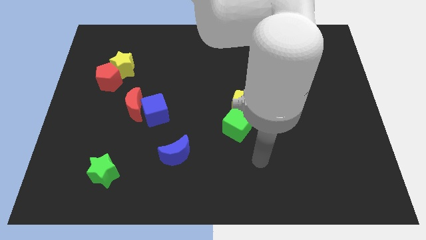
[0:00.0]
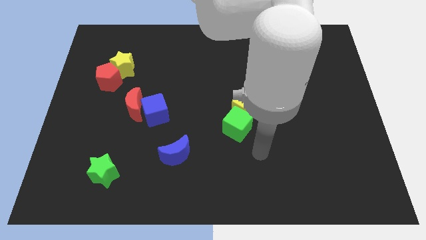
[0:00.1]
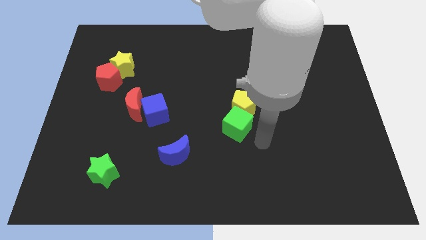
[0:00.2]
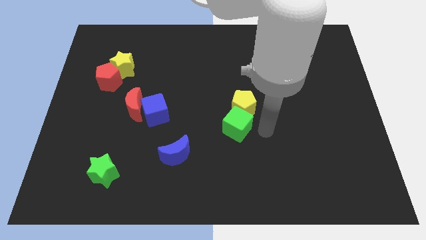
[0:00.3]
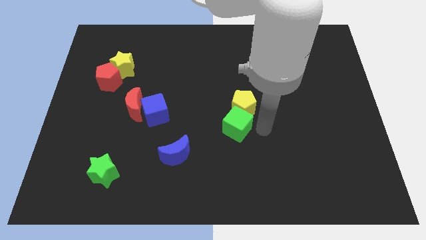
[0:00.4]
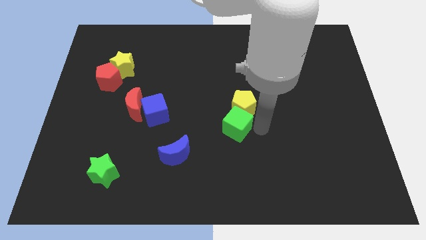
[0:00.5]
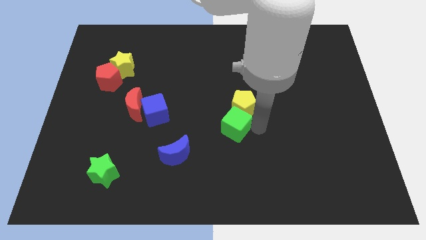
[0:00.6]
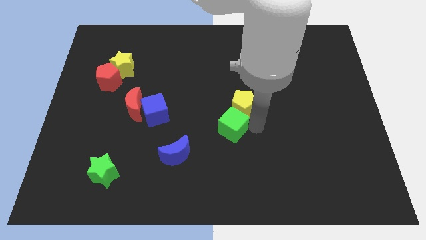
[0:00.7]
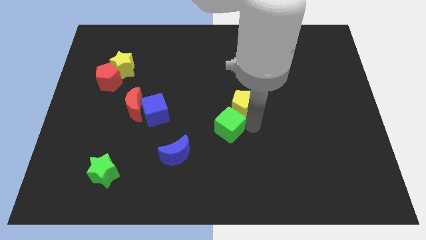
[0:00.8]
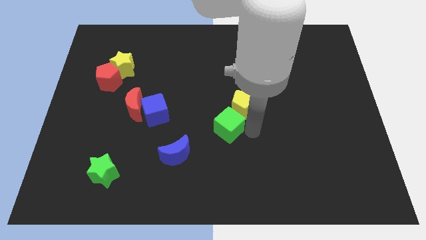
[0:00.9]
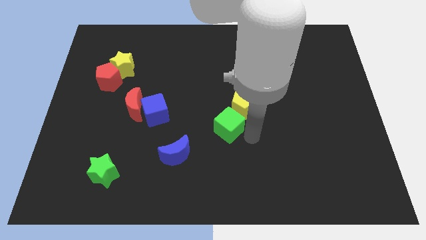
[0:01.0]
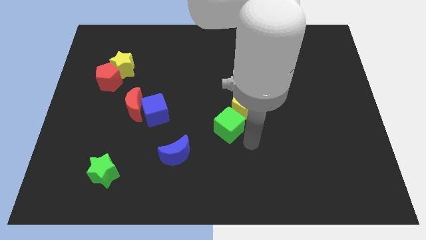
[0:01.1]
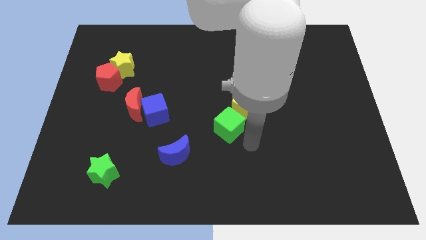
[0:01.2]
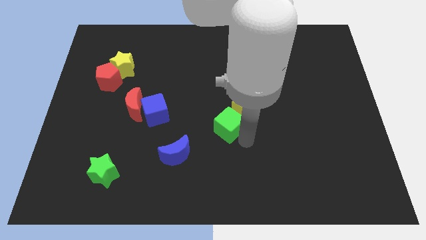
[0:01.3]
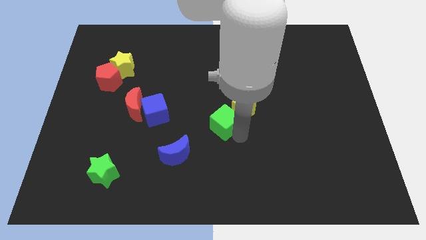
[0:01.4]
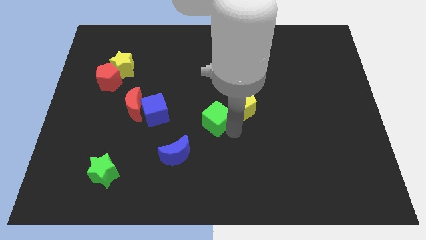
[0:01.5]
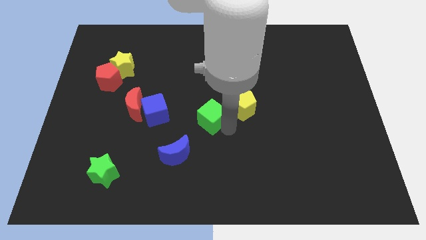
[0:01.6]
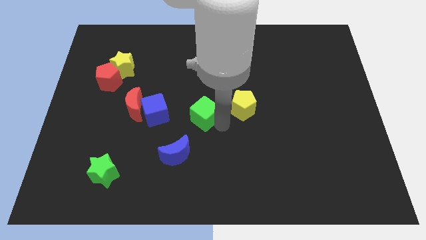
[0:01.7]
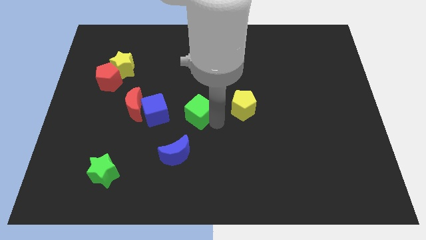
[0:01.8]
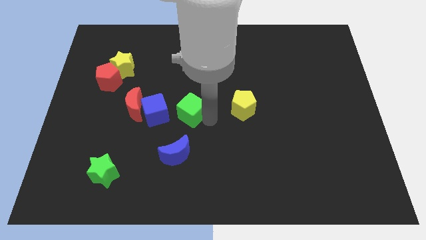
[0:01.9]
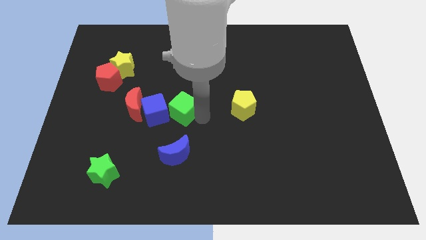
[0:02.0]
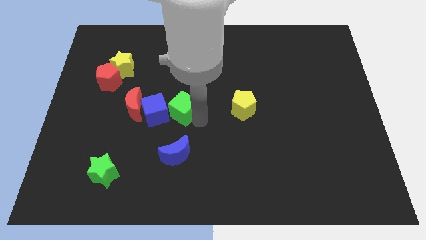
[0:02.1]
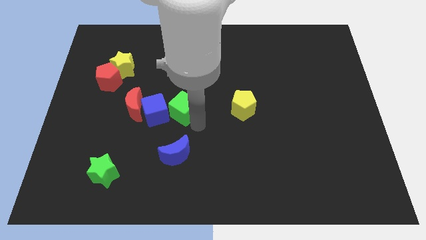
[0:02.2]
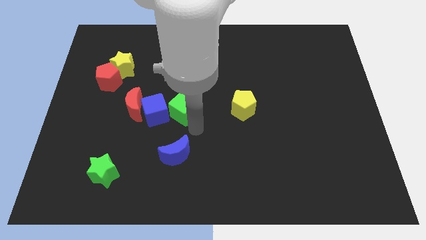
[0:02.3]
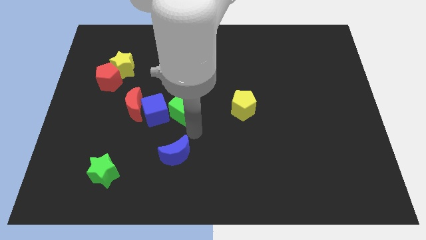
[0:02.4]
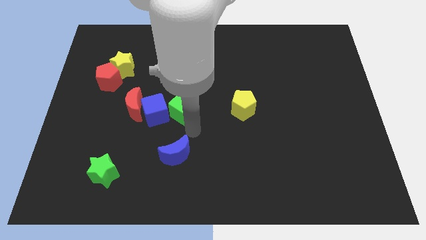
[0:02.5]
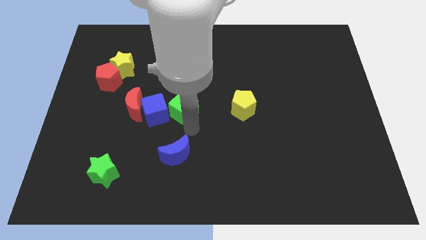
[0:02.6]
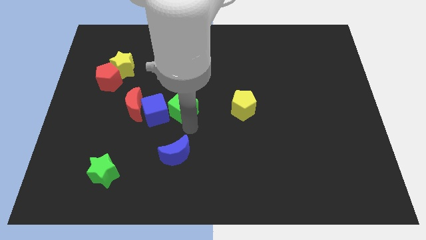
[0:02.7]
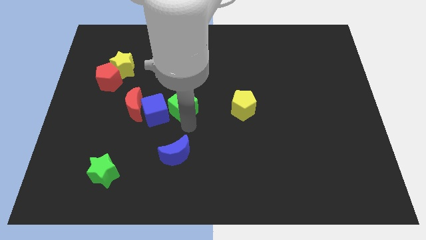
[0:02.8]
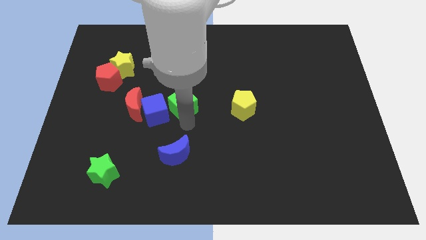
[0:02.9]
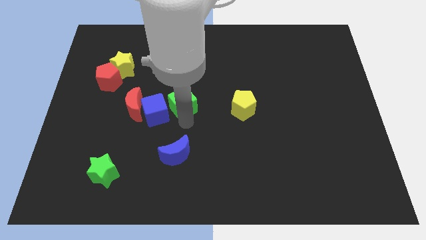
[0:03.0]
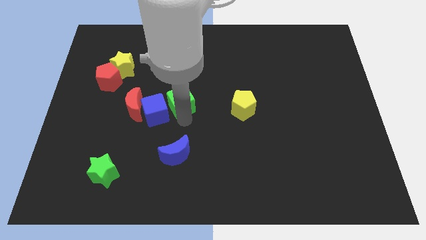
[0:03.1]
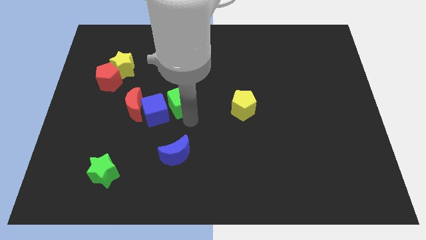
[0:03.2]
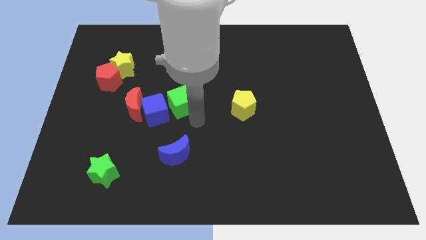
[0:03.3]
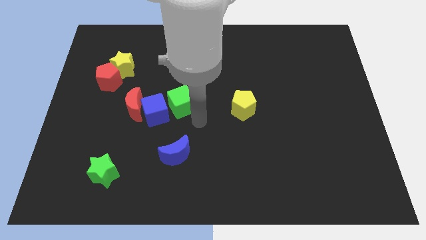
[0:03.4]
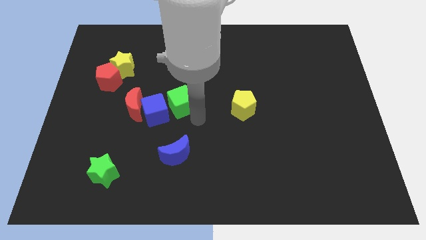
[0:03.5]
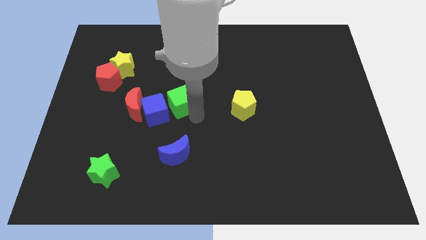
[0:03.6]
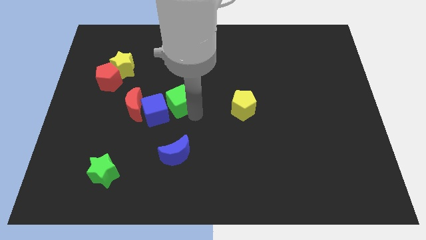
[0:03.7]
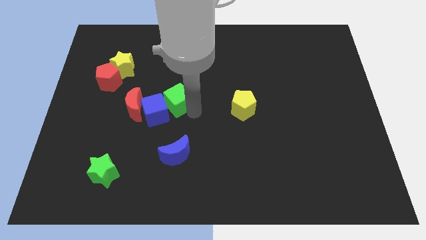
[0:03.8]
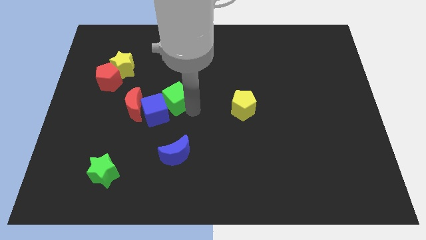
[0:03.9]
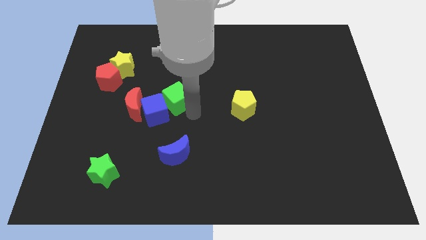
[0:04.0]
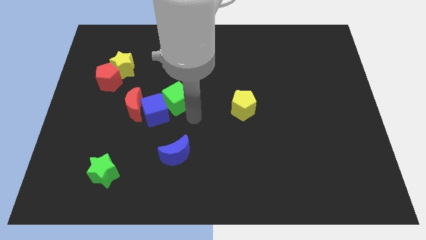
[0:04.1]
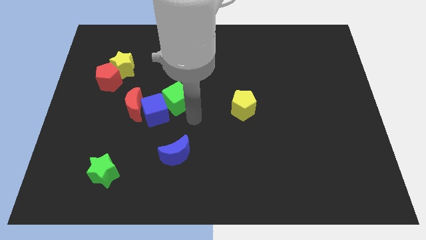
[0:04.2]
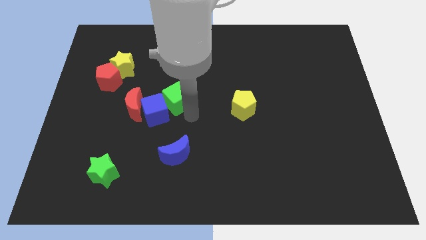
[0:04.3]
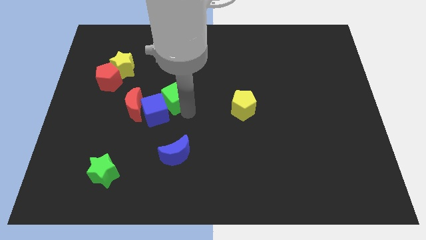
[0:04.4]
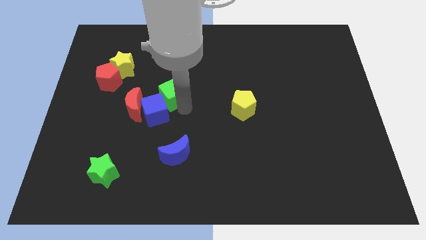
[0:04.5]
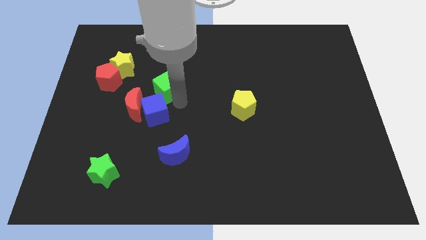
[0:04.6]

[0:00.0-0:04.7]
slide the green cube to the right of the red pentagon

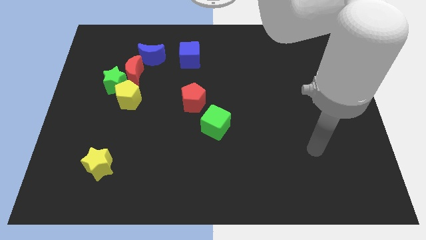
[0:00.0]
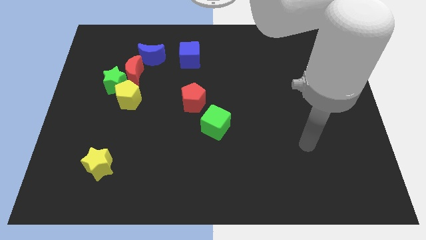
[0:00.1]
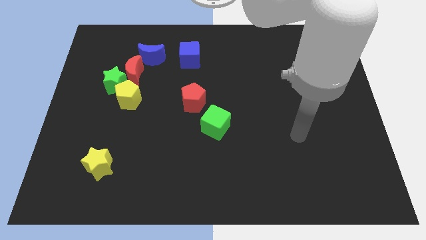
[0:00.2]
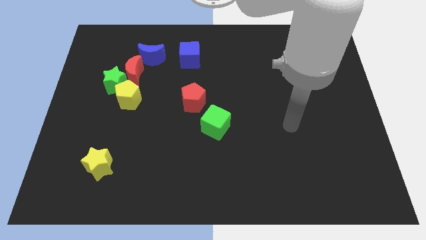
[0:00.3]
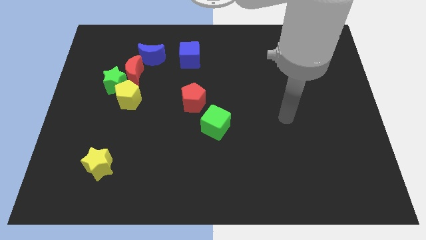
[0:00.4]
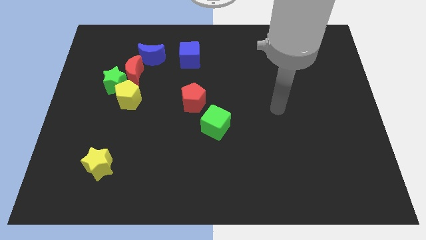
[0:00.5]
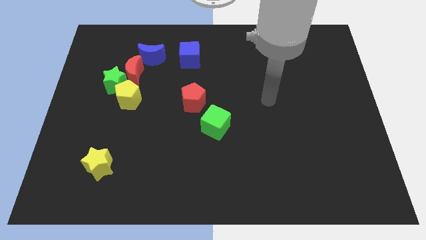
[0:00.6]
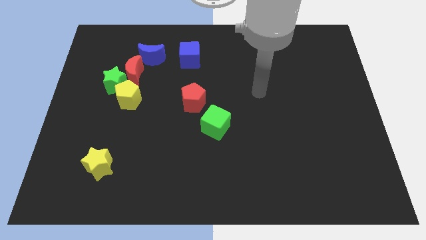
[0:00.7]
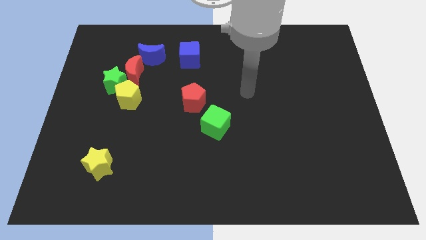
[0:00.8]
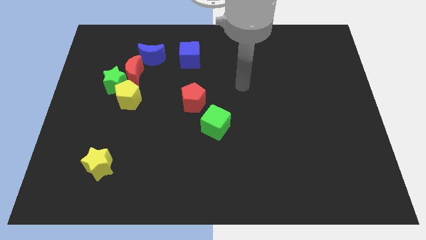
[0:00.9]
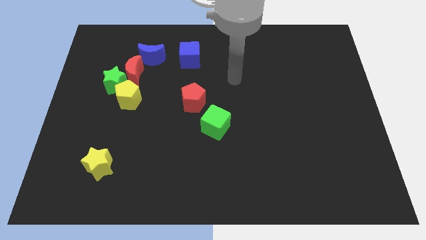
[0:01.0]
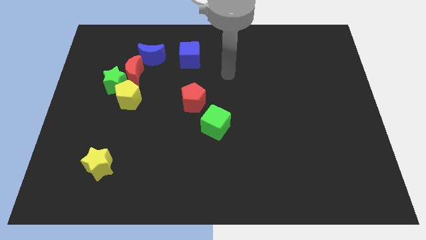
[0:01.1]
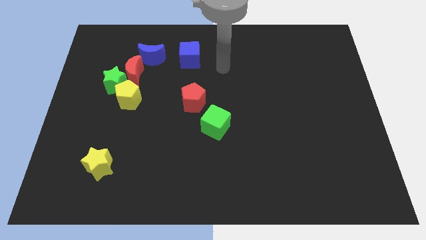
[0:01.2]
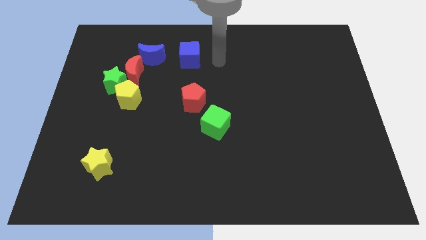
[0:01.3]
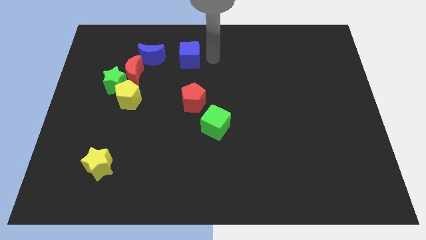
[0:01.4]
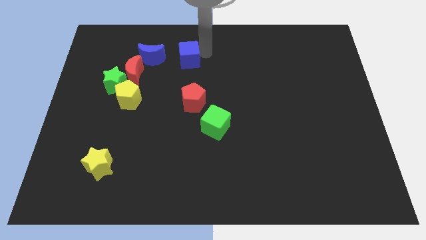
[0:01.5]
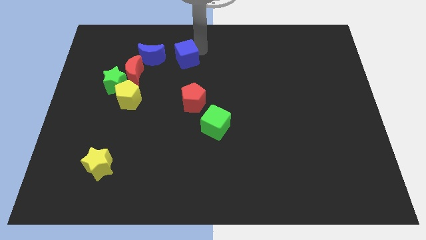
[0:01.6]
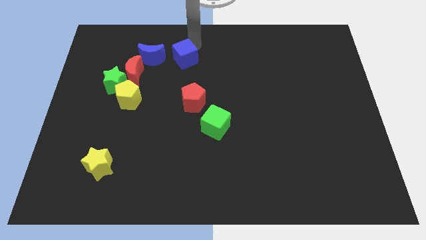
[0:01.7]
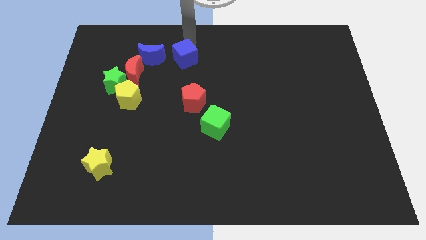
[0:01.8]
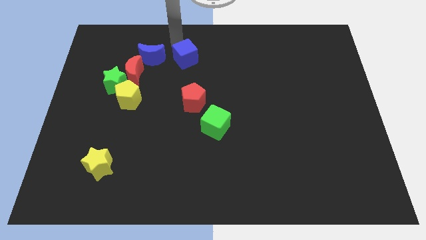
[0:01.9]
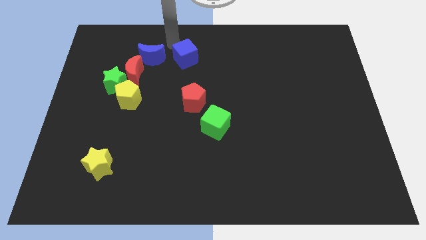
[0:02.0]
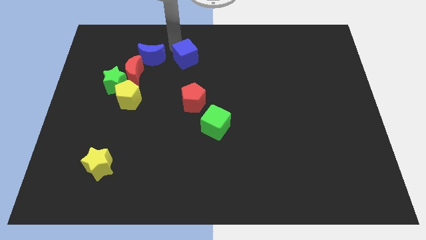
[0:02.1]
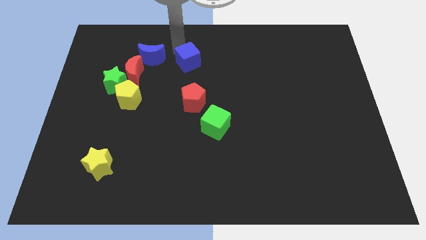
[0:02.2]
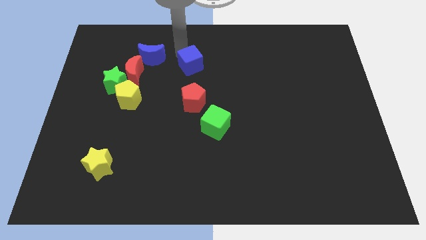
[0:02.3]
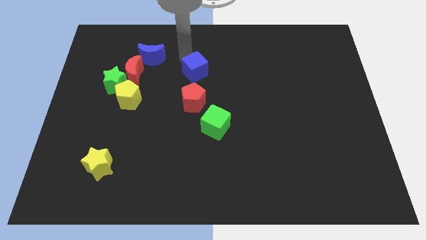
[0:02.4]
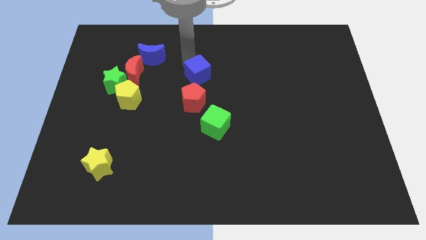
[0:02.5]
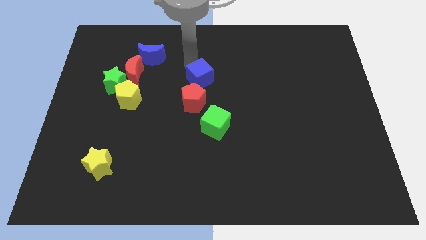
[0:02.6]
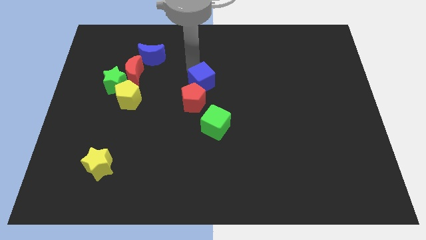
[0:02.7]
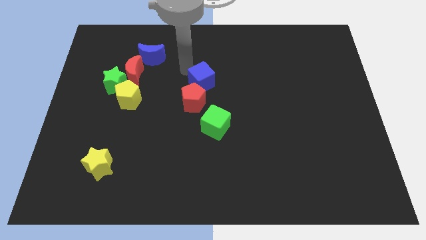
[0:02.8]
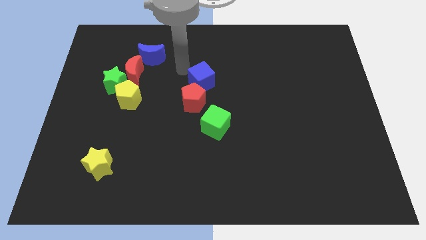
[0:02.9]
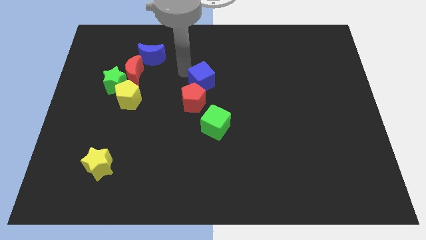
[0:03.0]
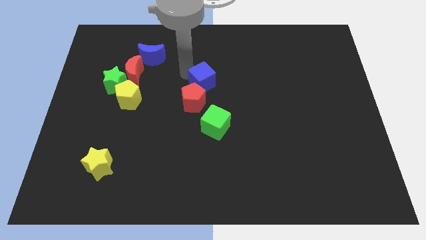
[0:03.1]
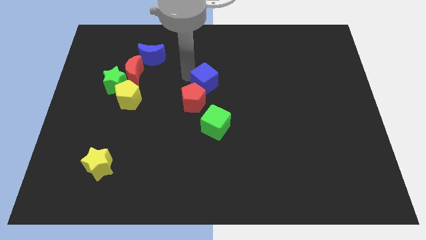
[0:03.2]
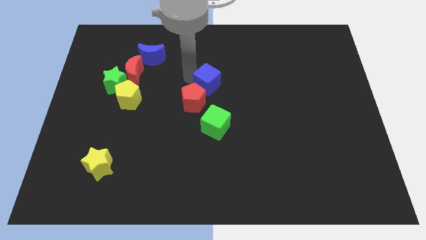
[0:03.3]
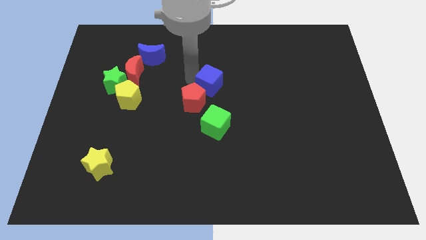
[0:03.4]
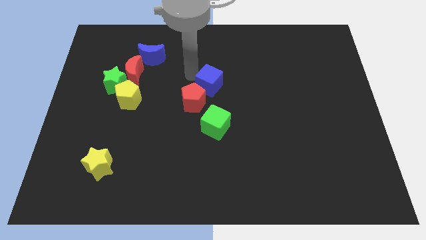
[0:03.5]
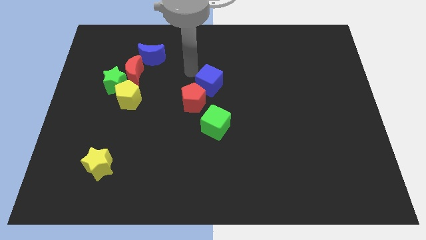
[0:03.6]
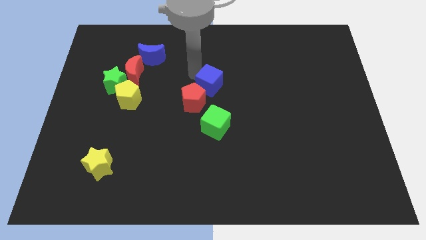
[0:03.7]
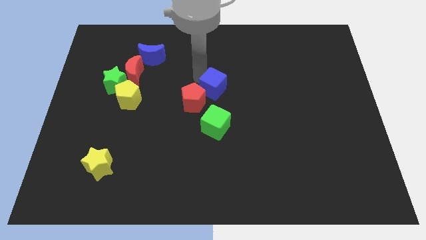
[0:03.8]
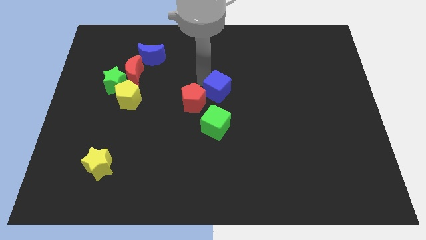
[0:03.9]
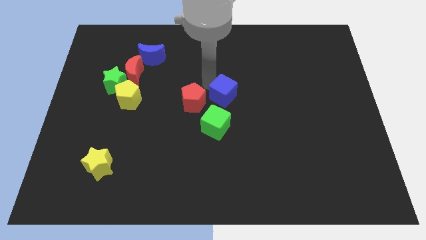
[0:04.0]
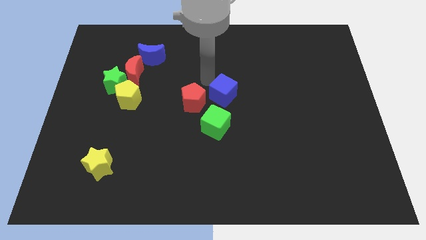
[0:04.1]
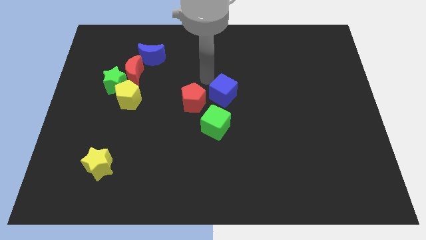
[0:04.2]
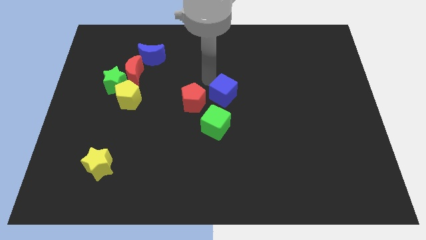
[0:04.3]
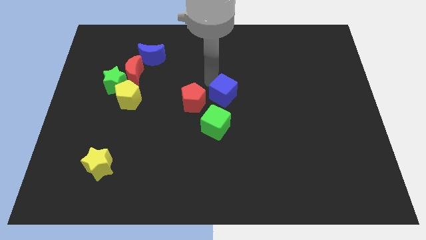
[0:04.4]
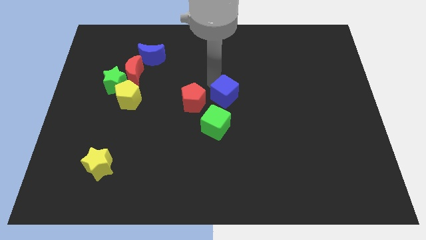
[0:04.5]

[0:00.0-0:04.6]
move the blue cube diagonally up and to the right of the green cube
